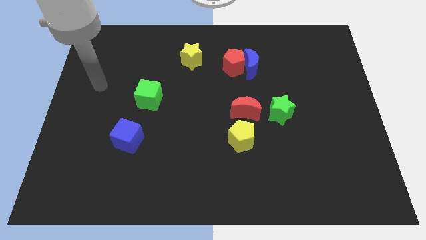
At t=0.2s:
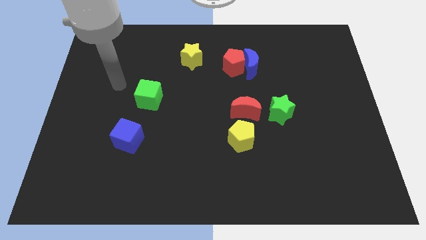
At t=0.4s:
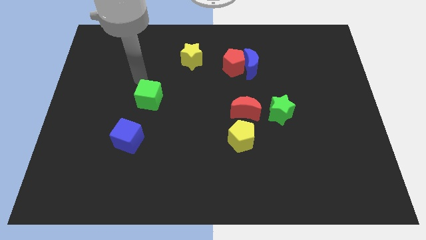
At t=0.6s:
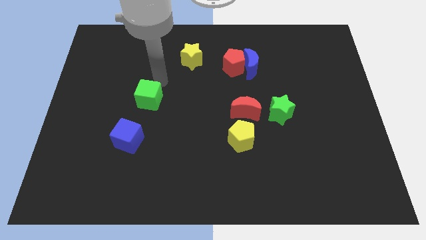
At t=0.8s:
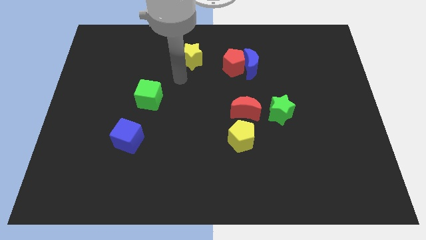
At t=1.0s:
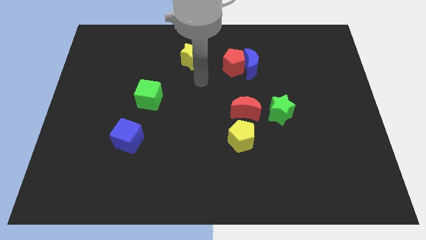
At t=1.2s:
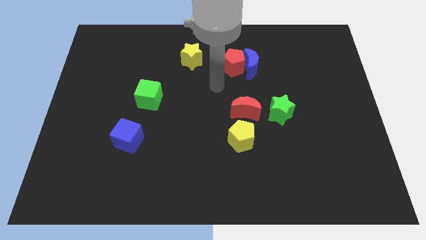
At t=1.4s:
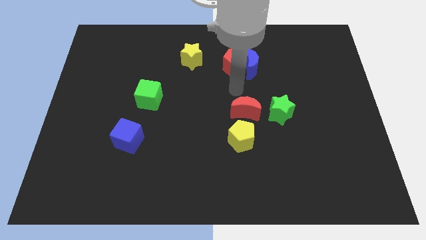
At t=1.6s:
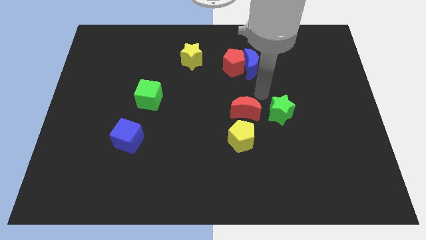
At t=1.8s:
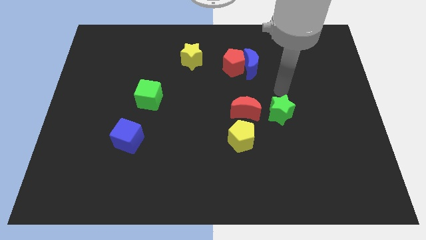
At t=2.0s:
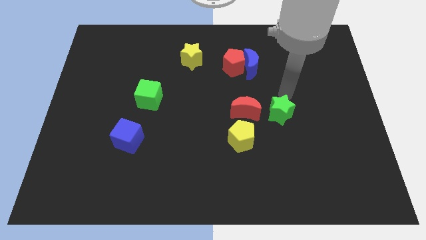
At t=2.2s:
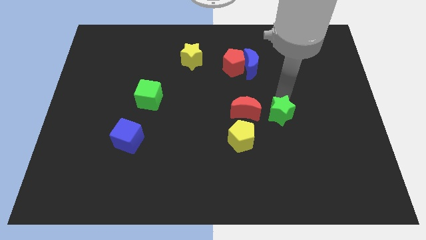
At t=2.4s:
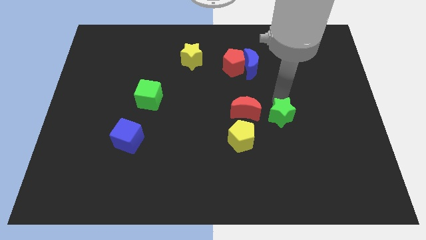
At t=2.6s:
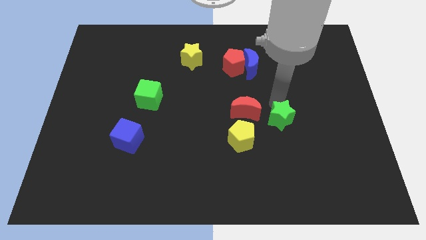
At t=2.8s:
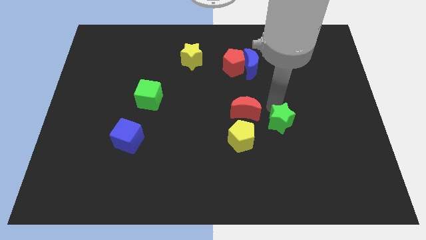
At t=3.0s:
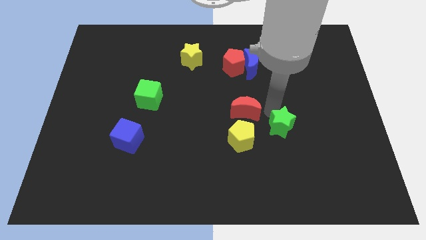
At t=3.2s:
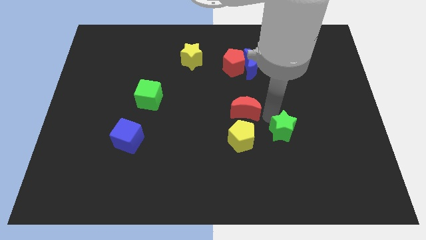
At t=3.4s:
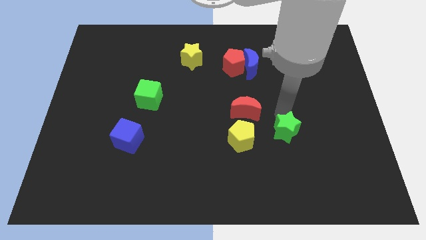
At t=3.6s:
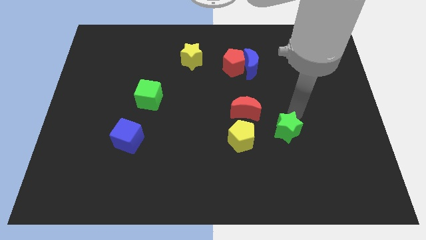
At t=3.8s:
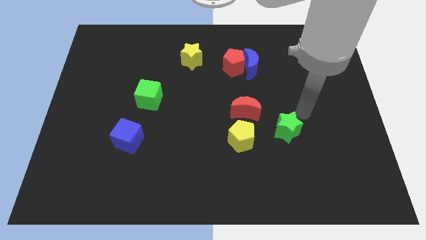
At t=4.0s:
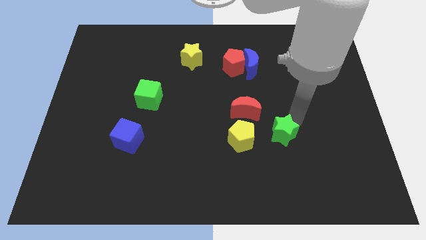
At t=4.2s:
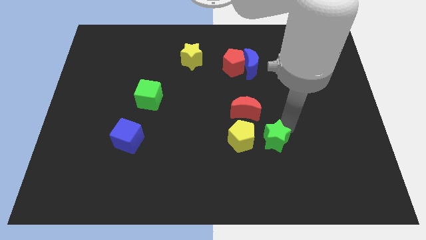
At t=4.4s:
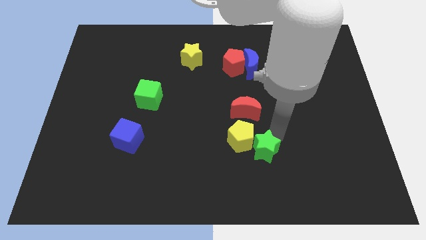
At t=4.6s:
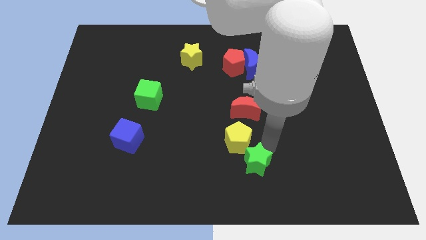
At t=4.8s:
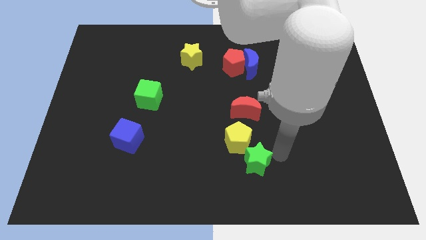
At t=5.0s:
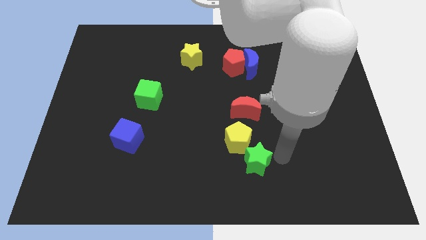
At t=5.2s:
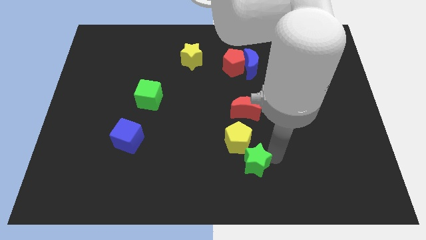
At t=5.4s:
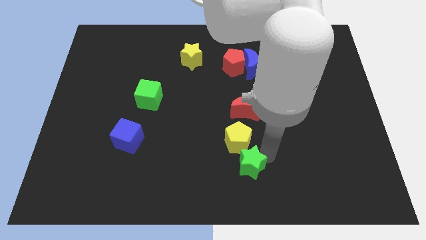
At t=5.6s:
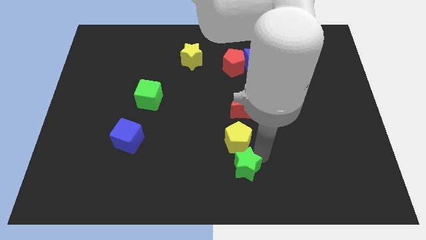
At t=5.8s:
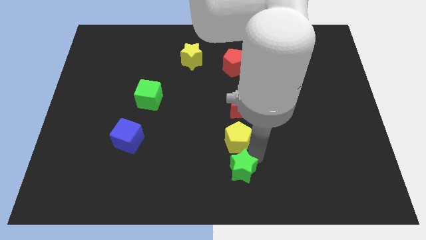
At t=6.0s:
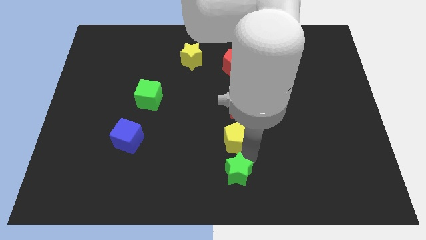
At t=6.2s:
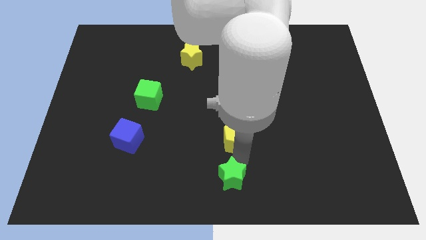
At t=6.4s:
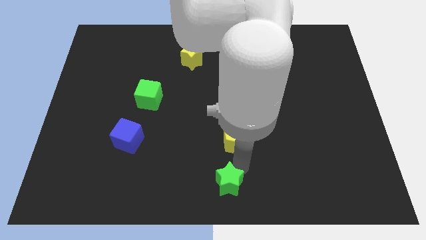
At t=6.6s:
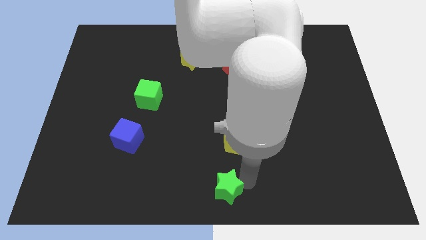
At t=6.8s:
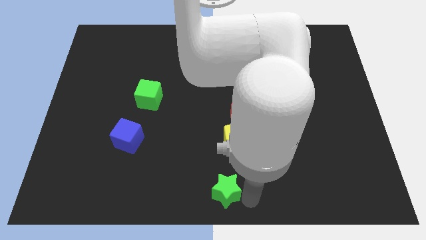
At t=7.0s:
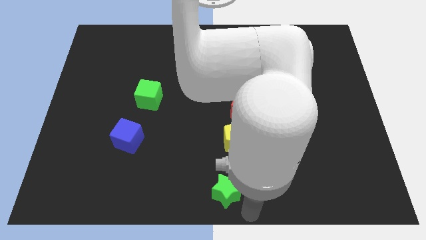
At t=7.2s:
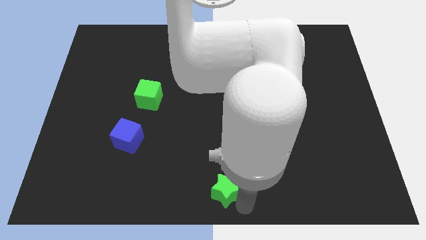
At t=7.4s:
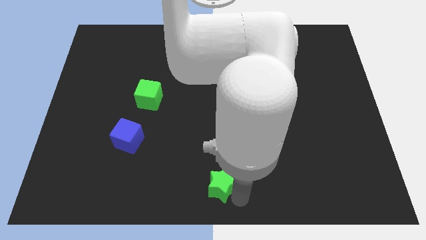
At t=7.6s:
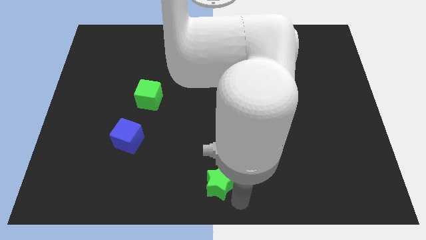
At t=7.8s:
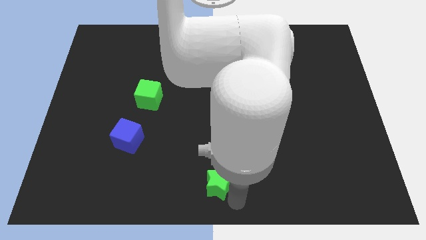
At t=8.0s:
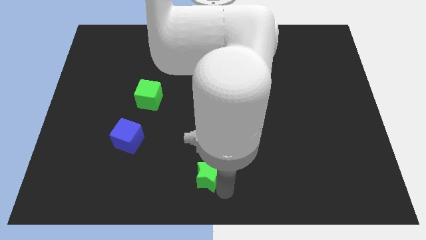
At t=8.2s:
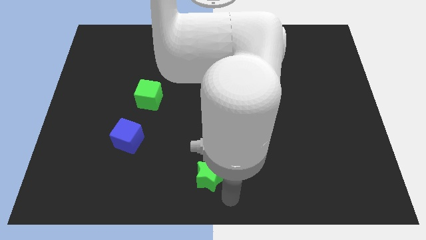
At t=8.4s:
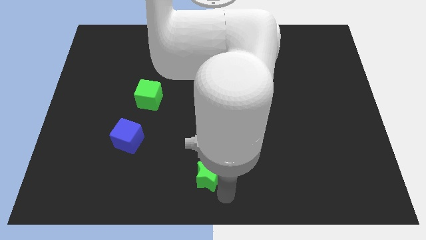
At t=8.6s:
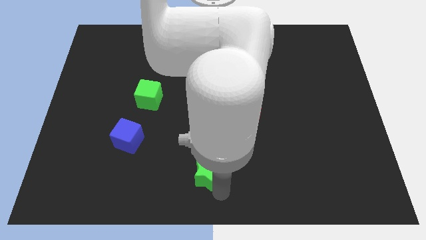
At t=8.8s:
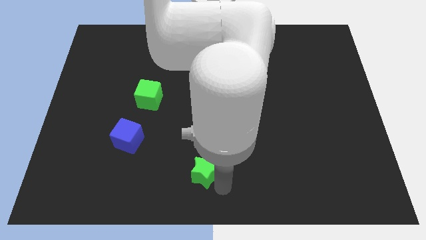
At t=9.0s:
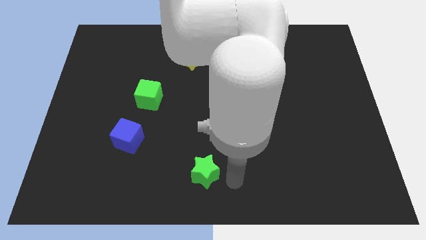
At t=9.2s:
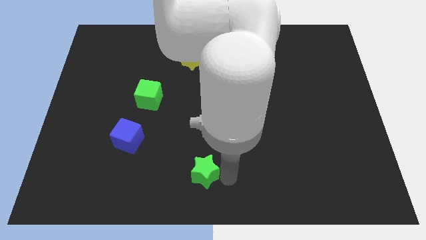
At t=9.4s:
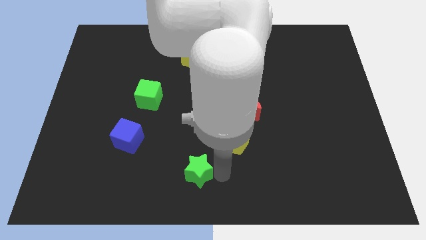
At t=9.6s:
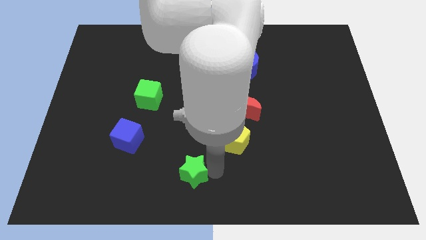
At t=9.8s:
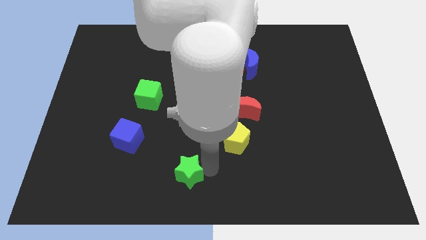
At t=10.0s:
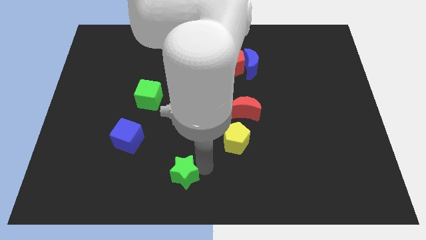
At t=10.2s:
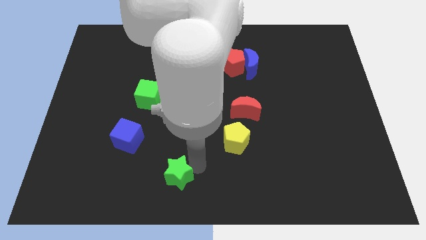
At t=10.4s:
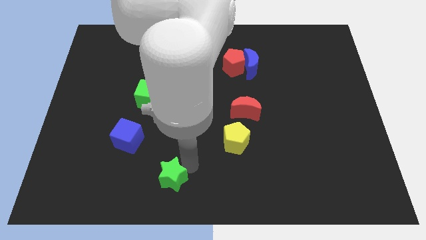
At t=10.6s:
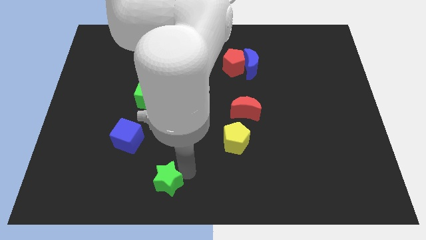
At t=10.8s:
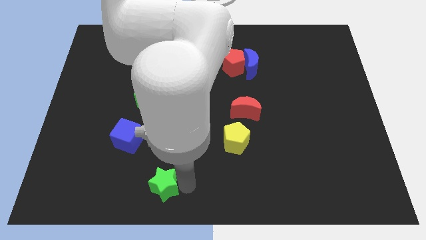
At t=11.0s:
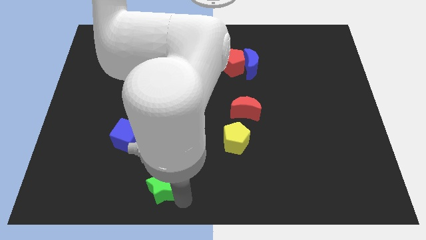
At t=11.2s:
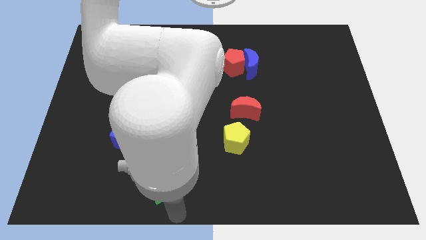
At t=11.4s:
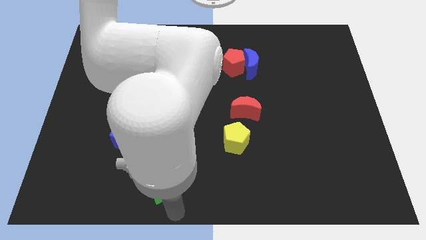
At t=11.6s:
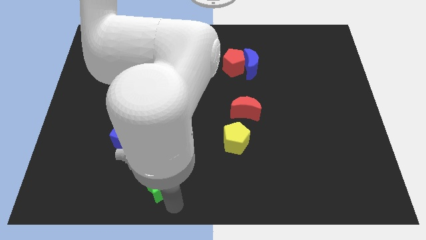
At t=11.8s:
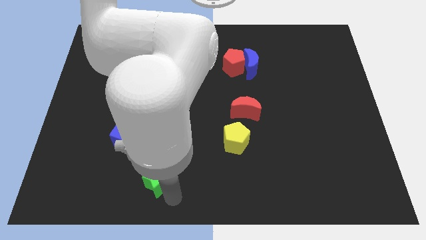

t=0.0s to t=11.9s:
push the green star to the bottom right of the blue cube

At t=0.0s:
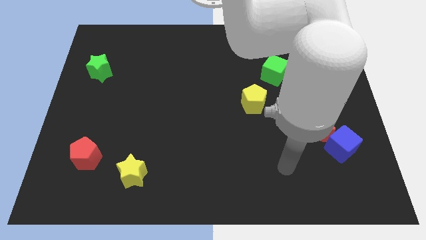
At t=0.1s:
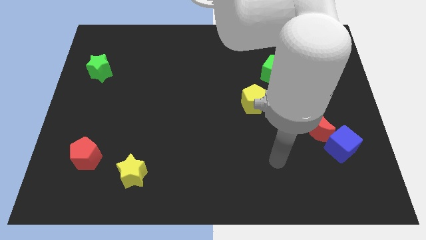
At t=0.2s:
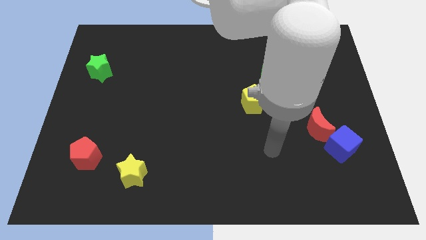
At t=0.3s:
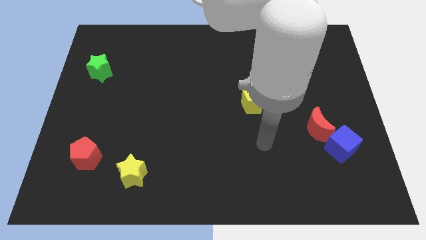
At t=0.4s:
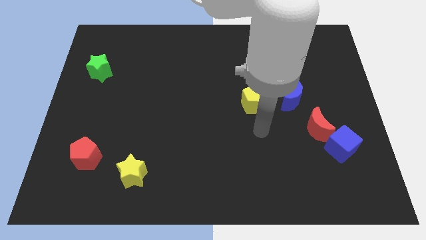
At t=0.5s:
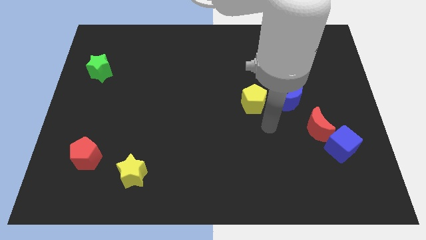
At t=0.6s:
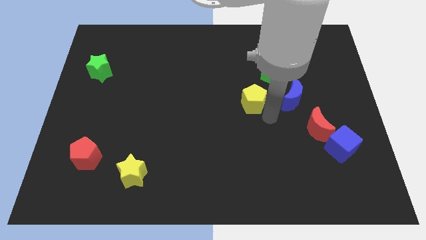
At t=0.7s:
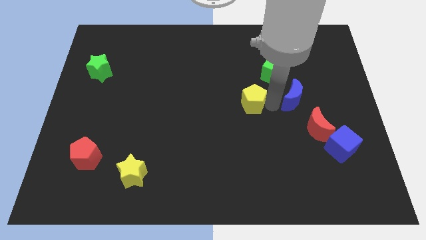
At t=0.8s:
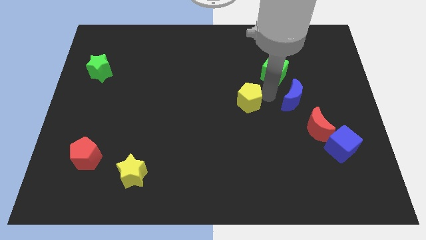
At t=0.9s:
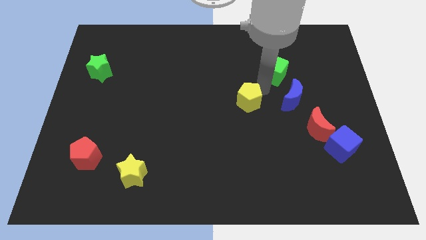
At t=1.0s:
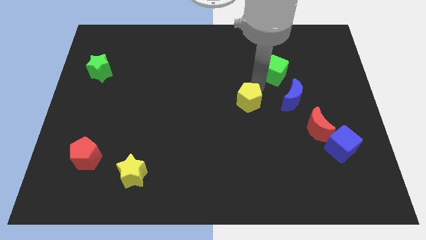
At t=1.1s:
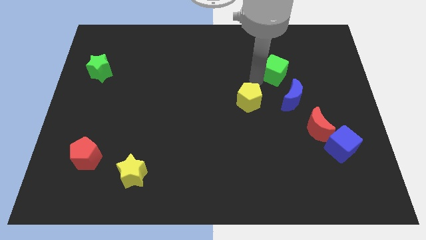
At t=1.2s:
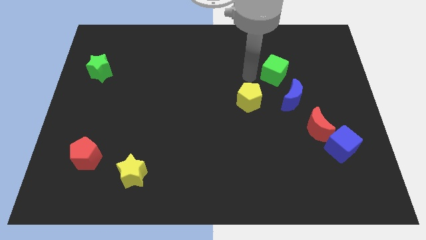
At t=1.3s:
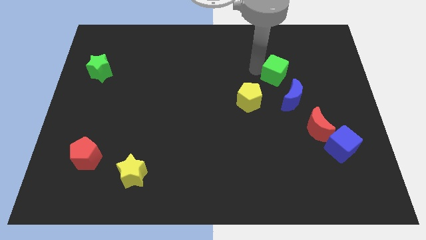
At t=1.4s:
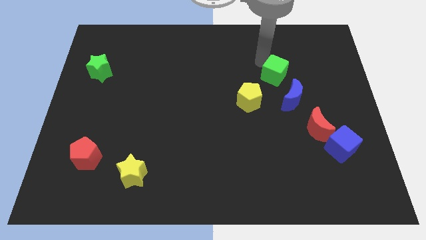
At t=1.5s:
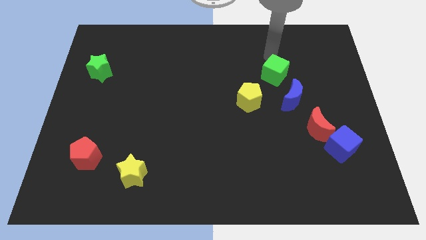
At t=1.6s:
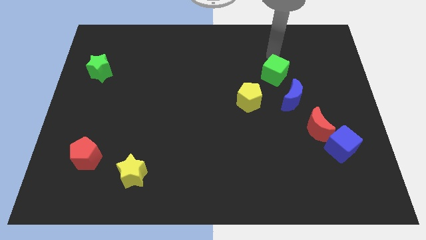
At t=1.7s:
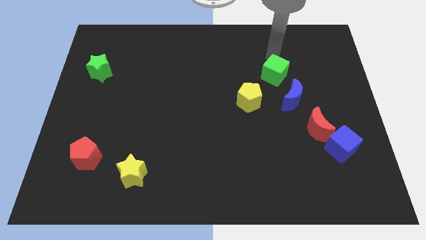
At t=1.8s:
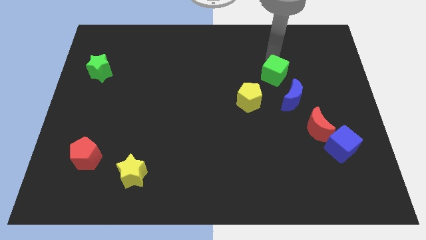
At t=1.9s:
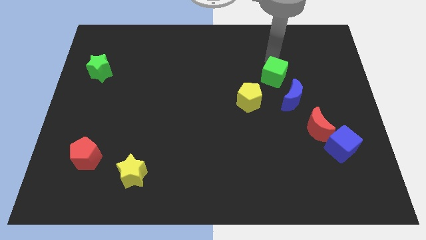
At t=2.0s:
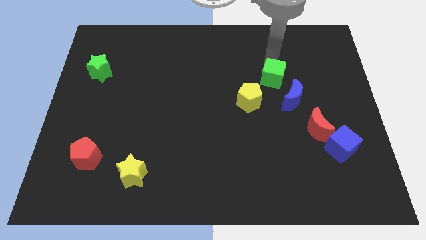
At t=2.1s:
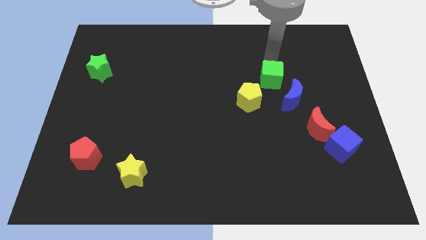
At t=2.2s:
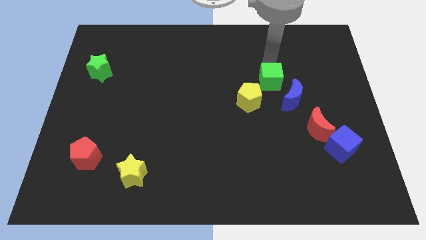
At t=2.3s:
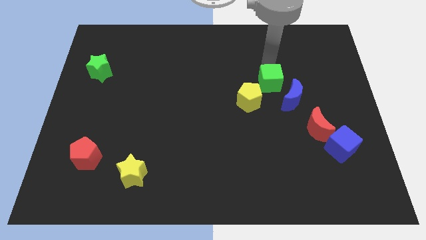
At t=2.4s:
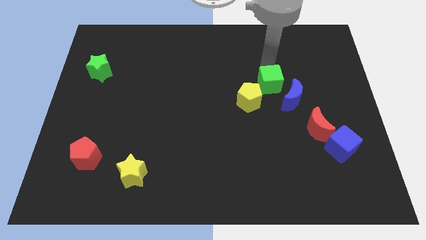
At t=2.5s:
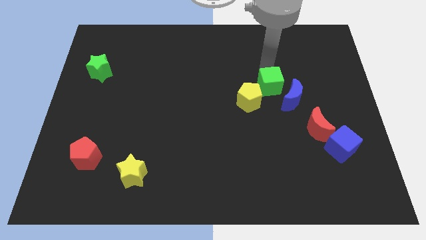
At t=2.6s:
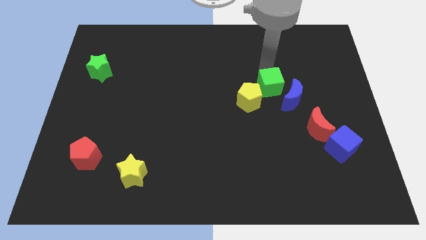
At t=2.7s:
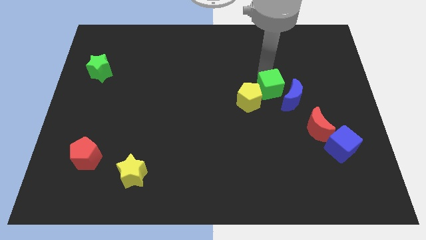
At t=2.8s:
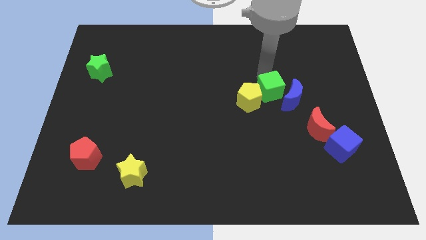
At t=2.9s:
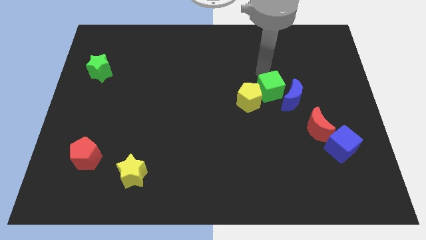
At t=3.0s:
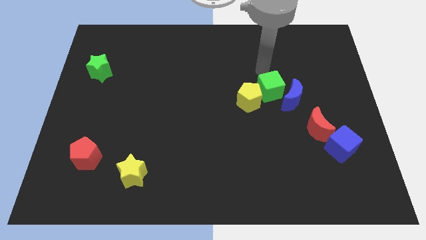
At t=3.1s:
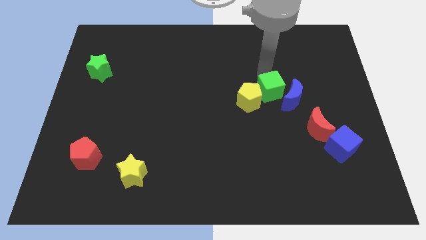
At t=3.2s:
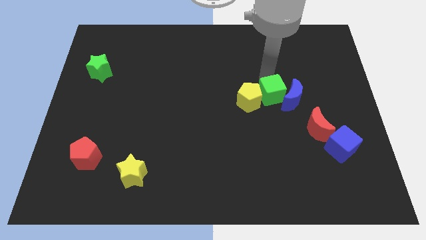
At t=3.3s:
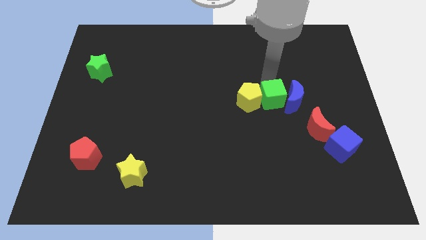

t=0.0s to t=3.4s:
put the green cube to the bottom right side of the yellow pentagon
